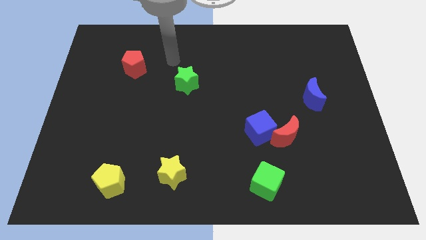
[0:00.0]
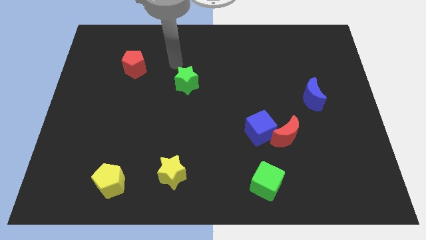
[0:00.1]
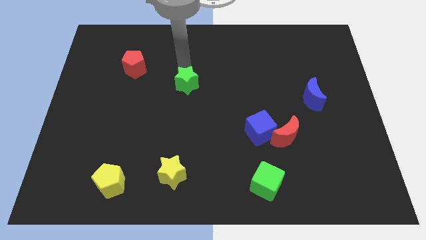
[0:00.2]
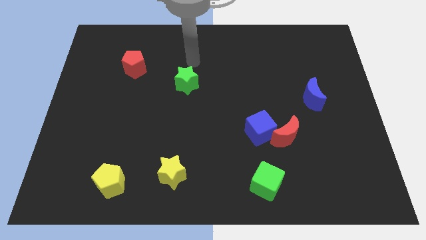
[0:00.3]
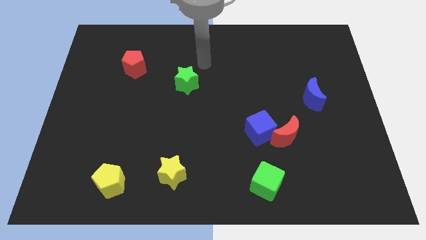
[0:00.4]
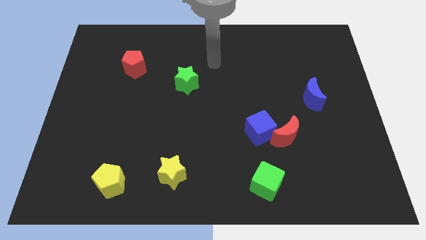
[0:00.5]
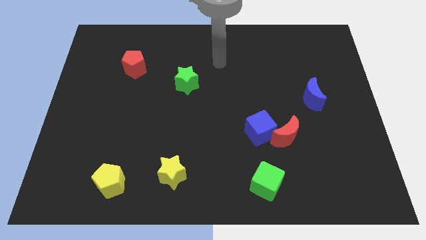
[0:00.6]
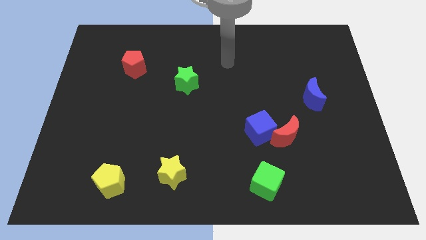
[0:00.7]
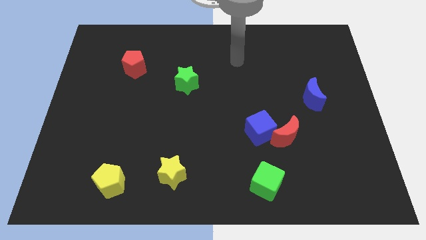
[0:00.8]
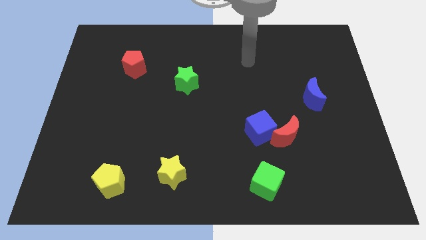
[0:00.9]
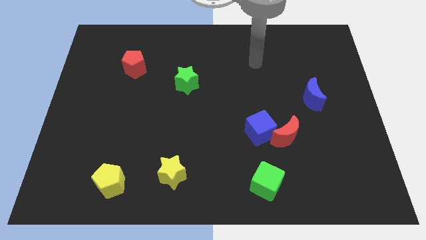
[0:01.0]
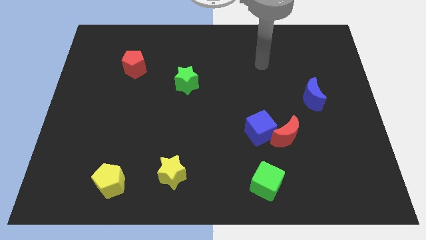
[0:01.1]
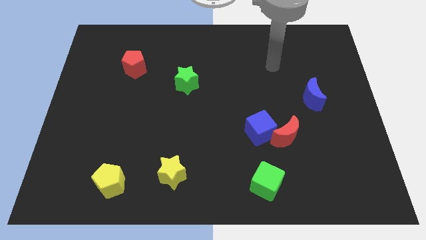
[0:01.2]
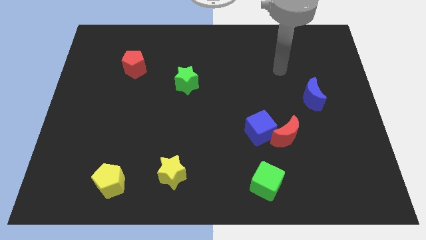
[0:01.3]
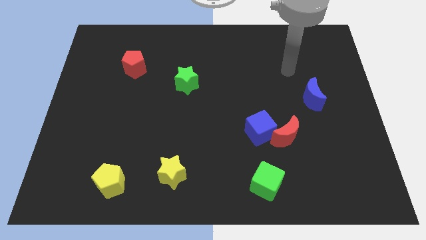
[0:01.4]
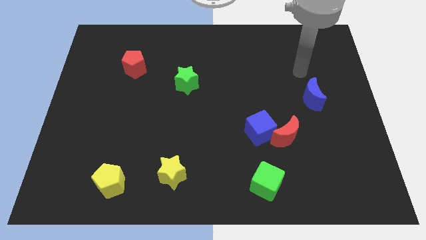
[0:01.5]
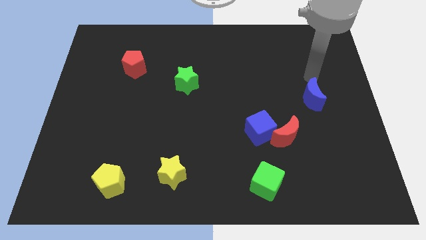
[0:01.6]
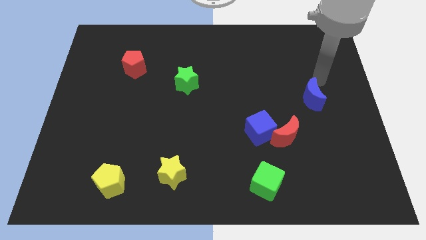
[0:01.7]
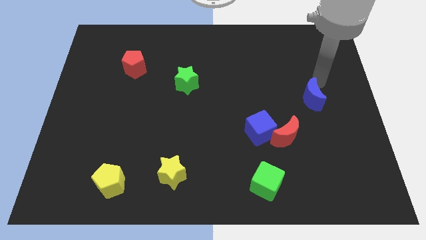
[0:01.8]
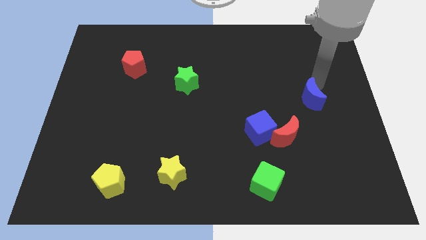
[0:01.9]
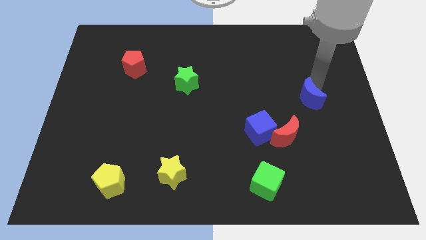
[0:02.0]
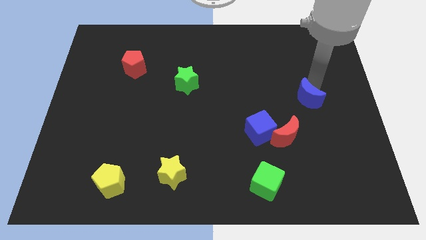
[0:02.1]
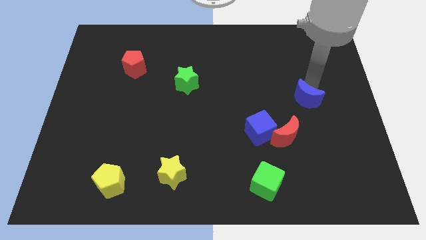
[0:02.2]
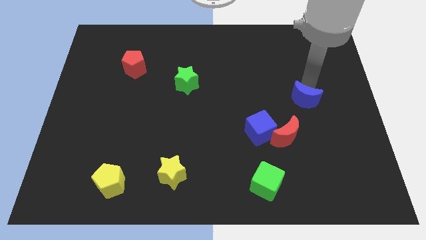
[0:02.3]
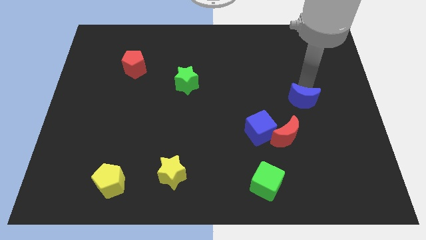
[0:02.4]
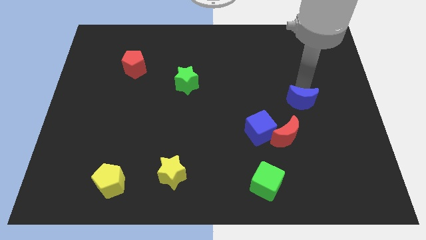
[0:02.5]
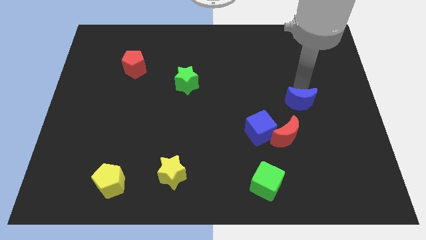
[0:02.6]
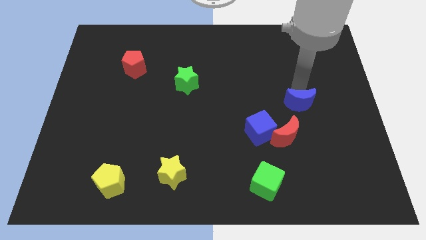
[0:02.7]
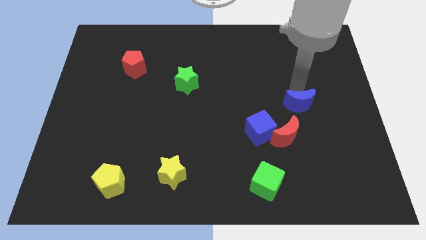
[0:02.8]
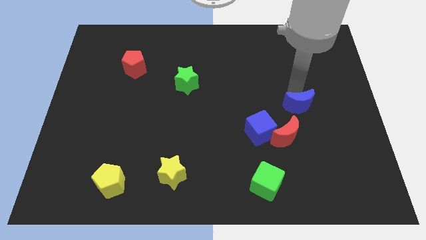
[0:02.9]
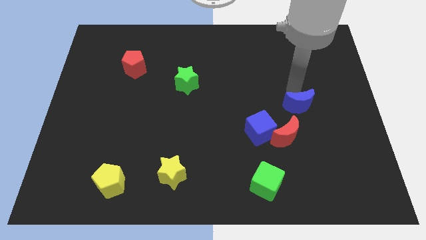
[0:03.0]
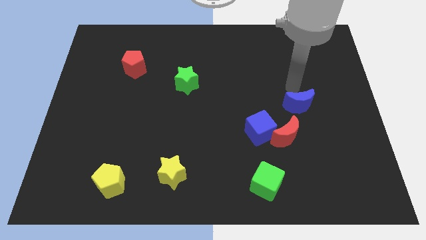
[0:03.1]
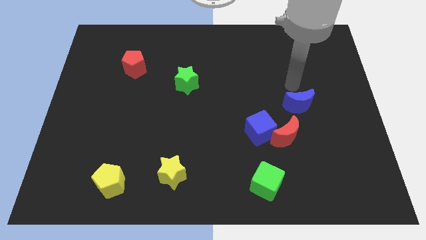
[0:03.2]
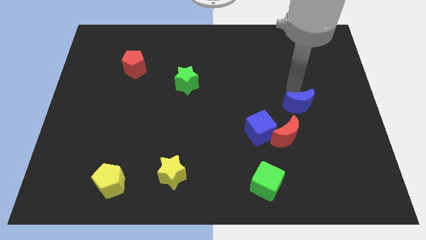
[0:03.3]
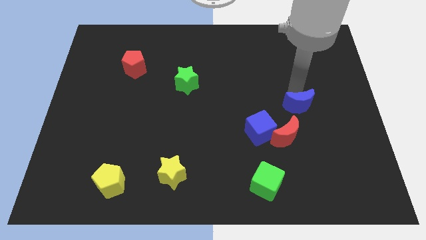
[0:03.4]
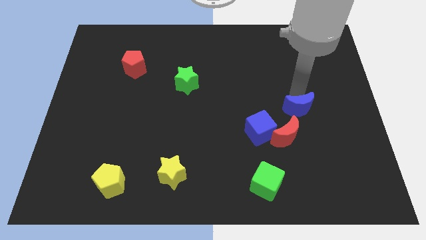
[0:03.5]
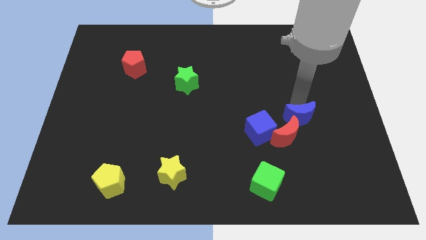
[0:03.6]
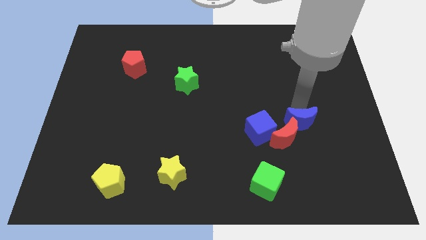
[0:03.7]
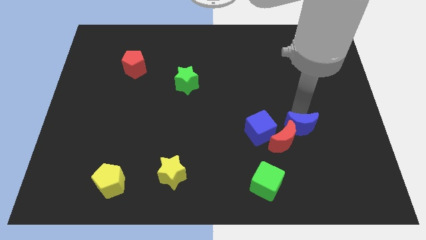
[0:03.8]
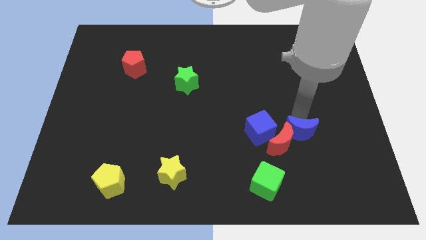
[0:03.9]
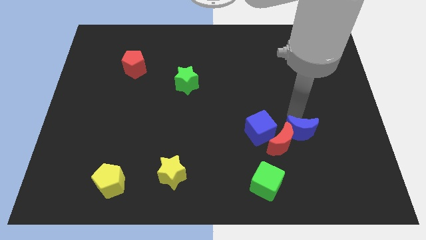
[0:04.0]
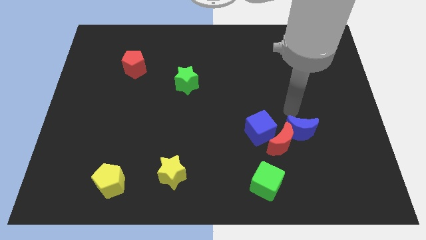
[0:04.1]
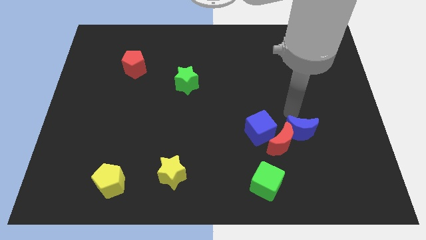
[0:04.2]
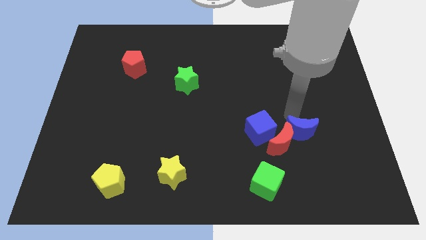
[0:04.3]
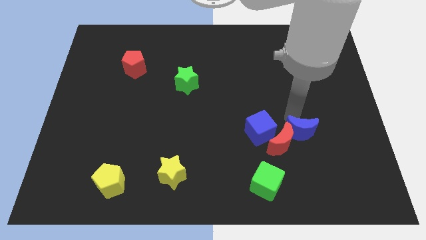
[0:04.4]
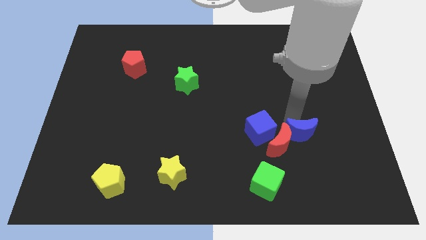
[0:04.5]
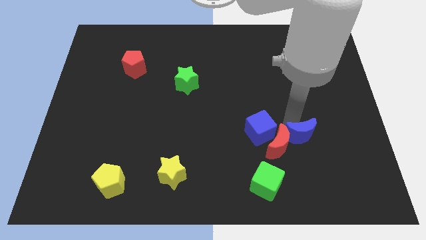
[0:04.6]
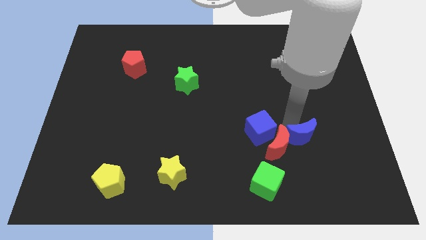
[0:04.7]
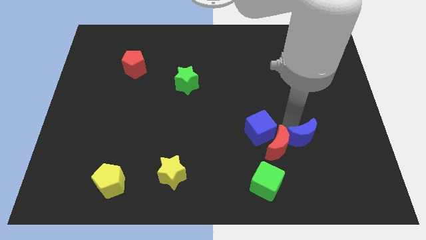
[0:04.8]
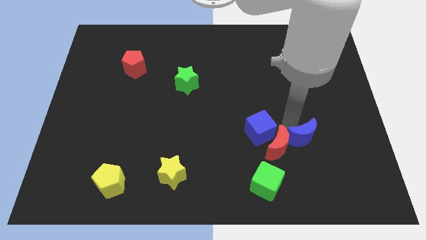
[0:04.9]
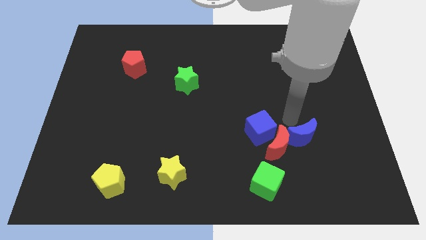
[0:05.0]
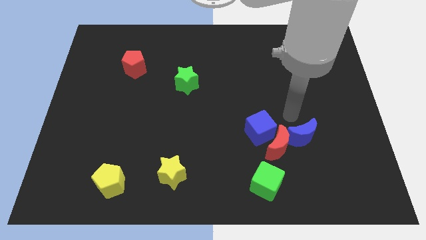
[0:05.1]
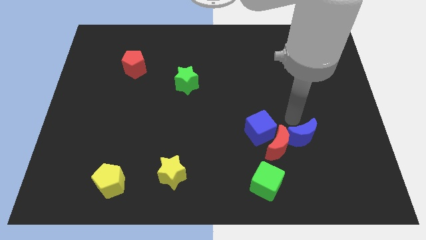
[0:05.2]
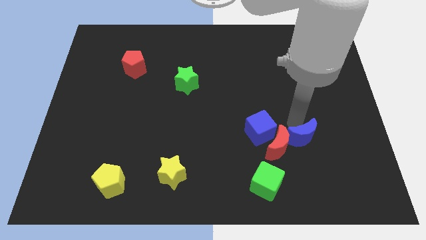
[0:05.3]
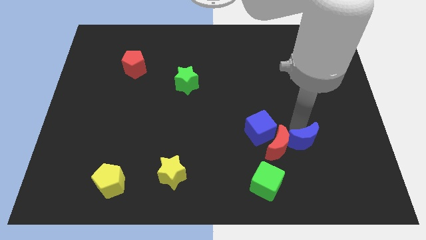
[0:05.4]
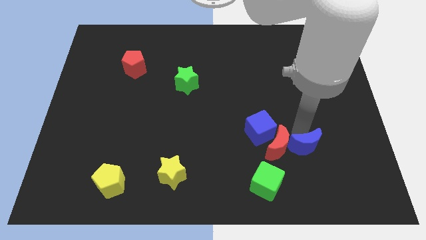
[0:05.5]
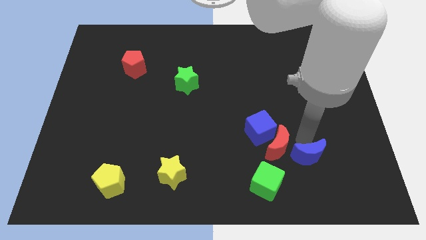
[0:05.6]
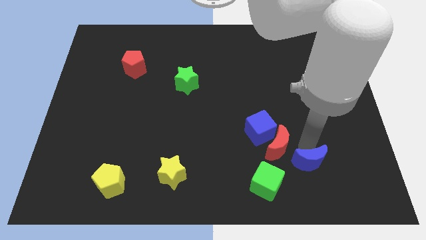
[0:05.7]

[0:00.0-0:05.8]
put the blue moon just right of the green cube

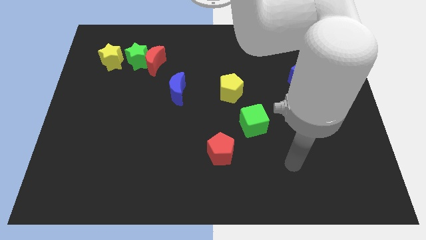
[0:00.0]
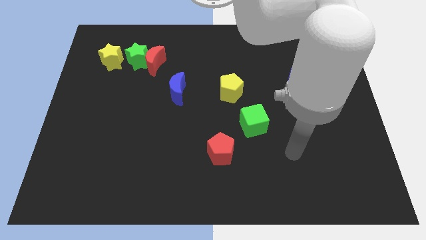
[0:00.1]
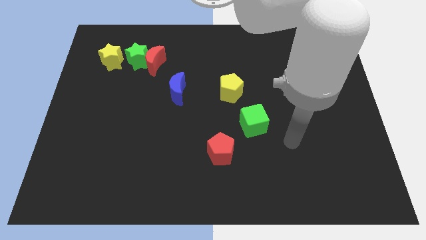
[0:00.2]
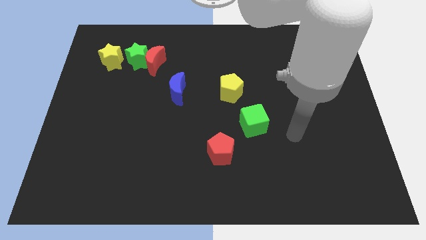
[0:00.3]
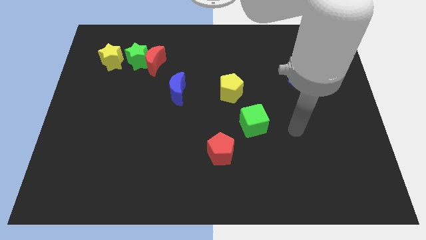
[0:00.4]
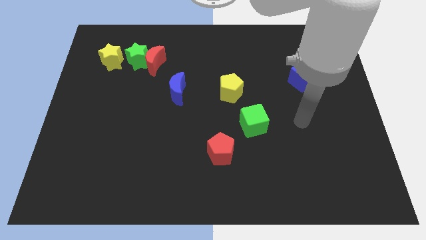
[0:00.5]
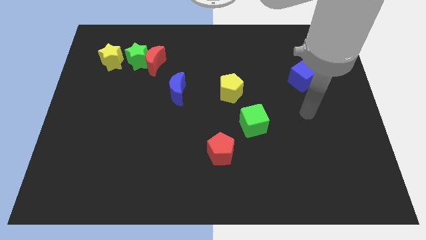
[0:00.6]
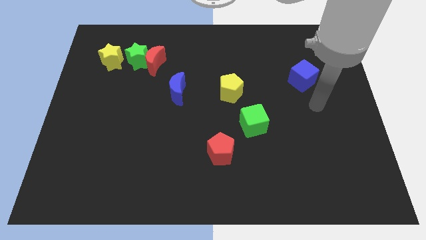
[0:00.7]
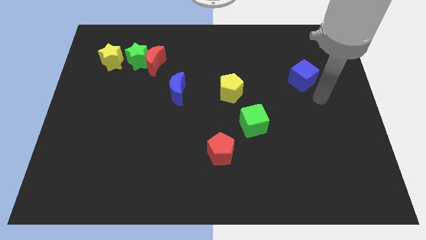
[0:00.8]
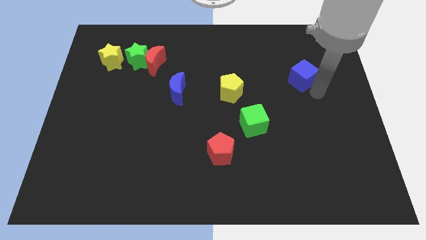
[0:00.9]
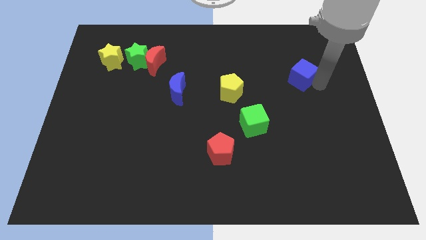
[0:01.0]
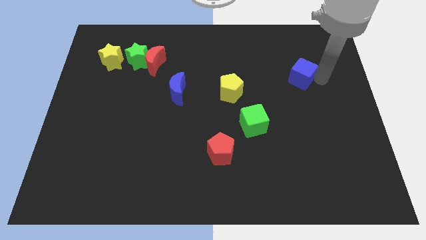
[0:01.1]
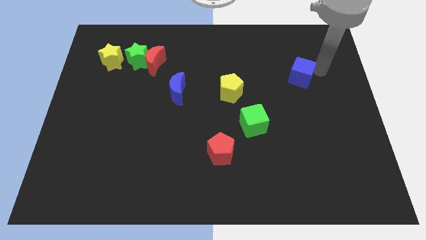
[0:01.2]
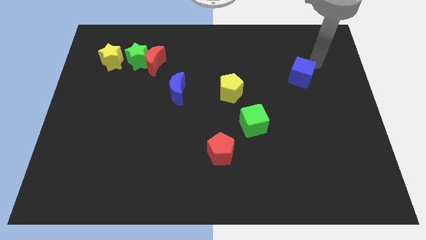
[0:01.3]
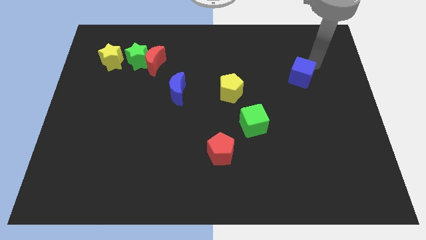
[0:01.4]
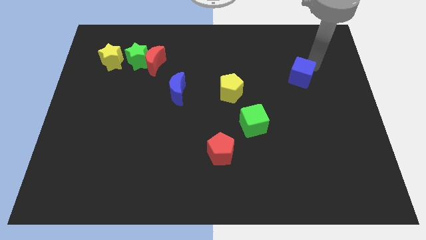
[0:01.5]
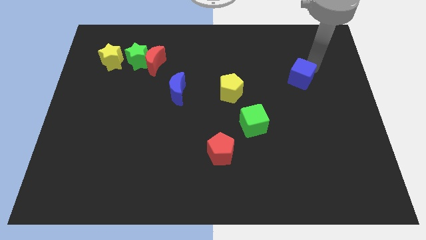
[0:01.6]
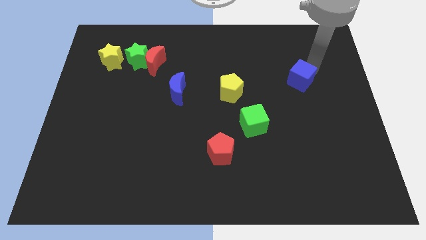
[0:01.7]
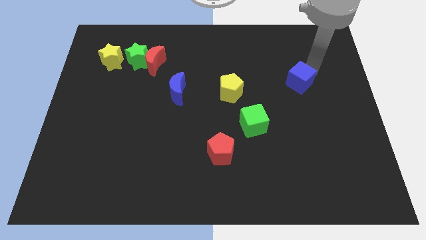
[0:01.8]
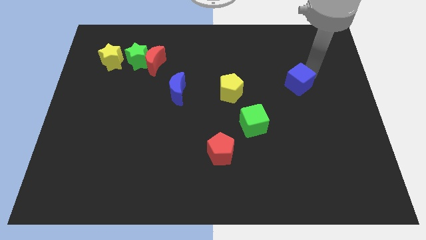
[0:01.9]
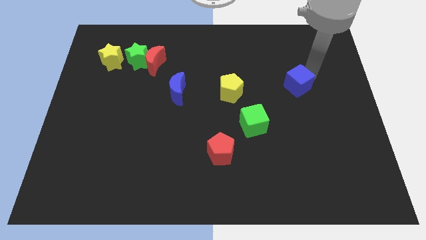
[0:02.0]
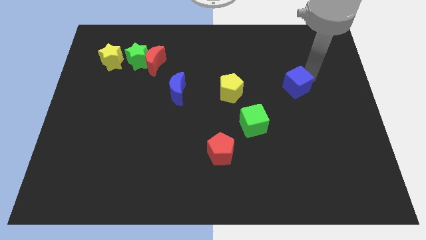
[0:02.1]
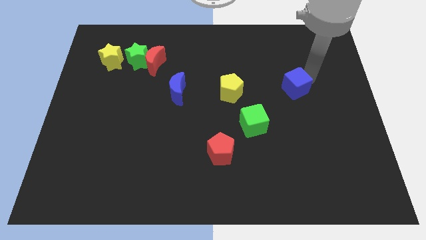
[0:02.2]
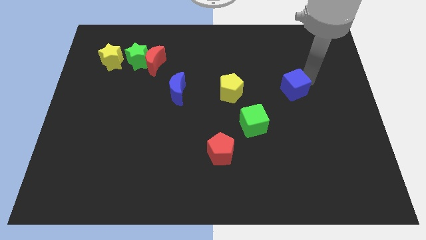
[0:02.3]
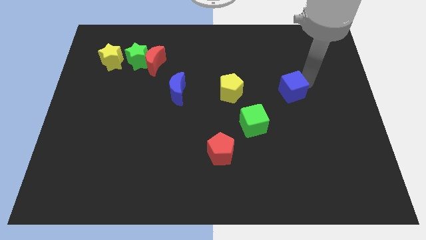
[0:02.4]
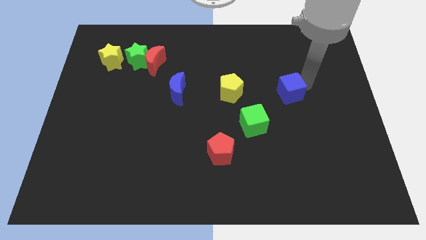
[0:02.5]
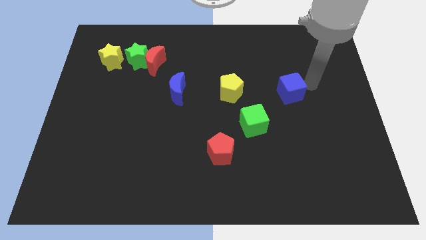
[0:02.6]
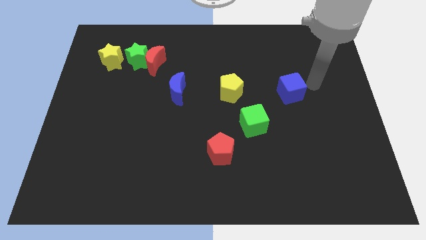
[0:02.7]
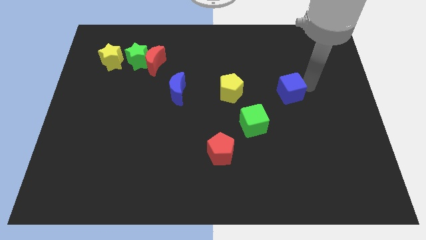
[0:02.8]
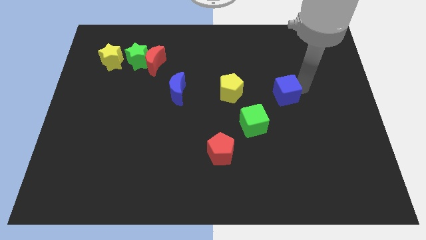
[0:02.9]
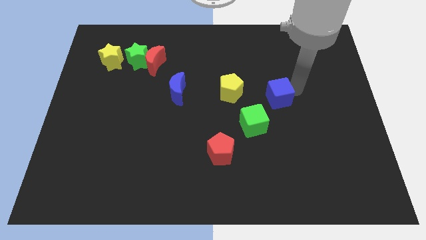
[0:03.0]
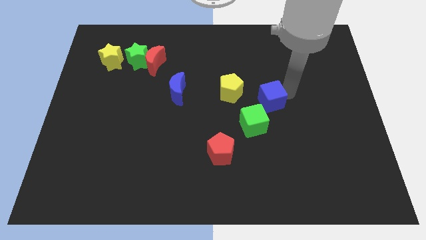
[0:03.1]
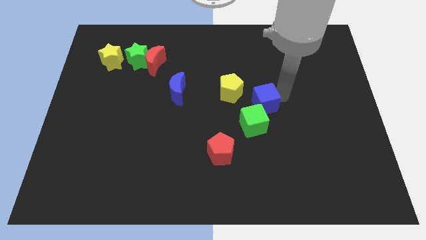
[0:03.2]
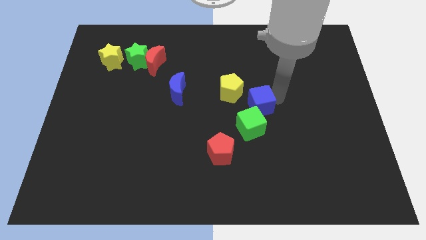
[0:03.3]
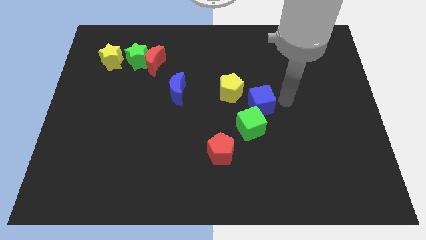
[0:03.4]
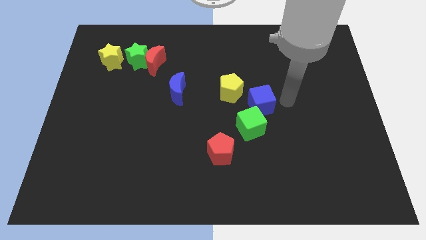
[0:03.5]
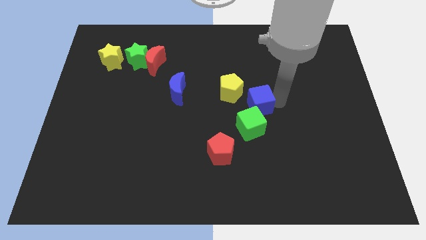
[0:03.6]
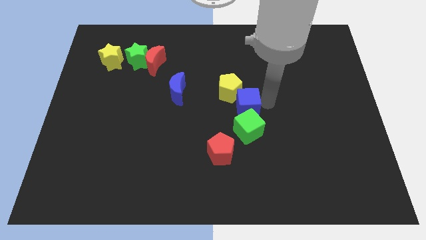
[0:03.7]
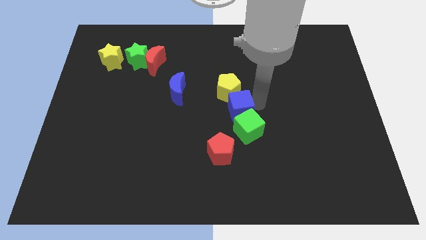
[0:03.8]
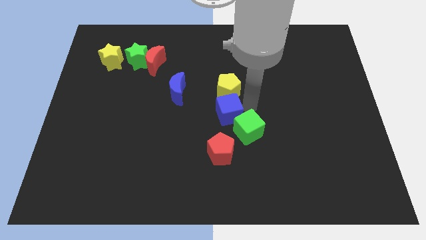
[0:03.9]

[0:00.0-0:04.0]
push the blue cube diagonally down and to the left of the yellow pentagon
